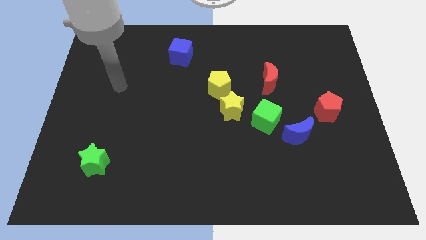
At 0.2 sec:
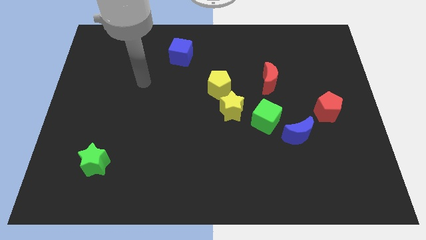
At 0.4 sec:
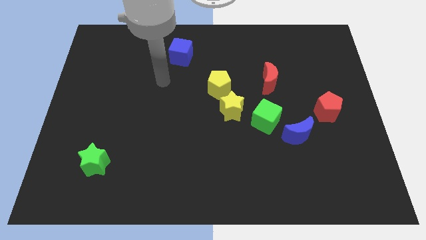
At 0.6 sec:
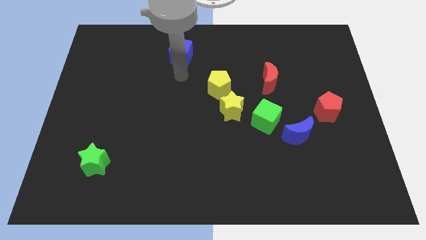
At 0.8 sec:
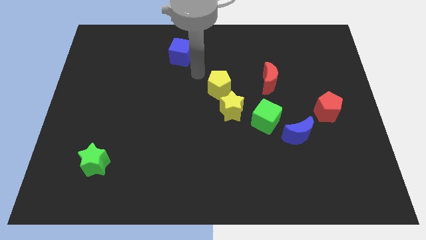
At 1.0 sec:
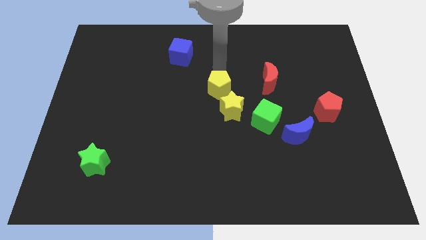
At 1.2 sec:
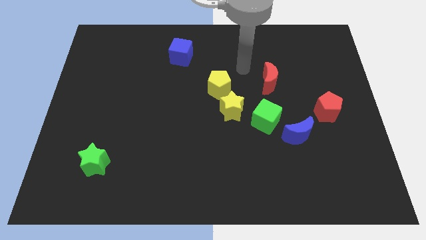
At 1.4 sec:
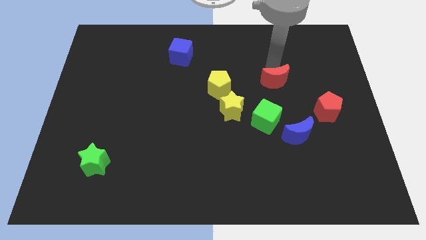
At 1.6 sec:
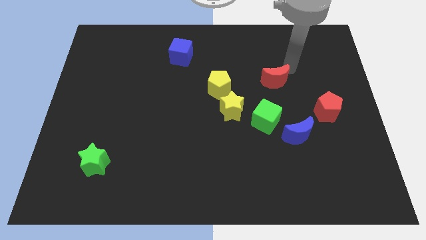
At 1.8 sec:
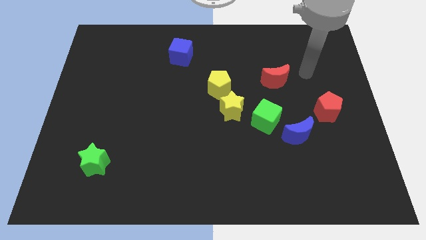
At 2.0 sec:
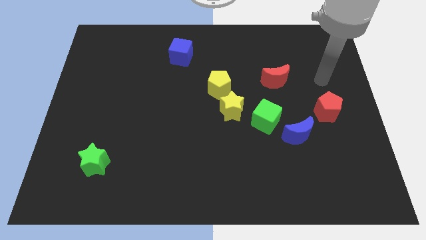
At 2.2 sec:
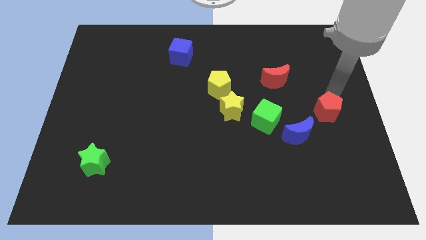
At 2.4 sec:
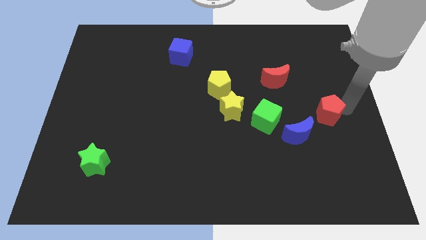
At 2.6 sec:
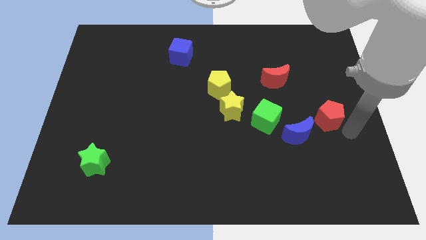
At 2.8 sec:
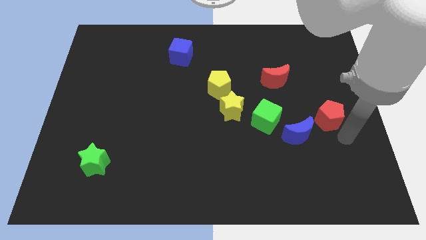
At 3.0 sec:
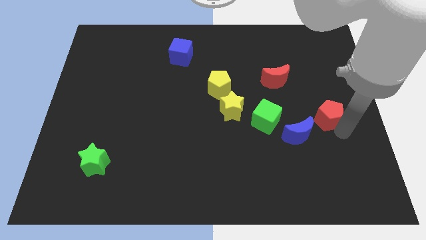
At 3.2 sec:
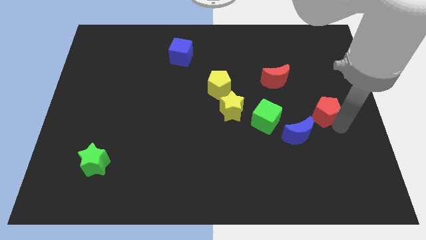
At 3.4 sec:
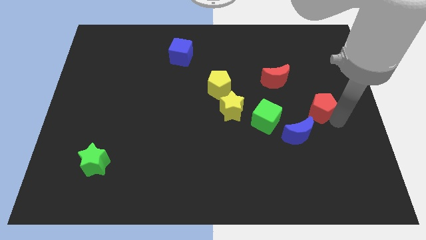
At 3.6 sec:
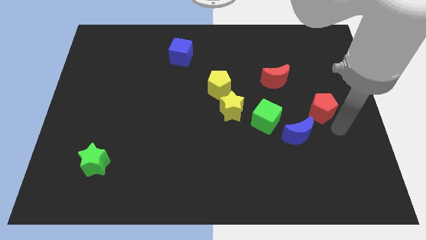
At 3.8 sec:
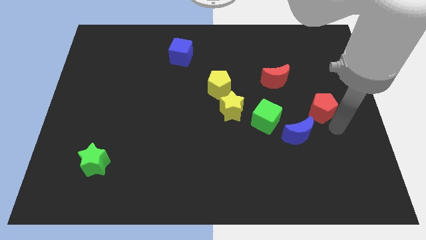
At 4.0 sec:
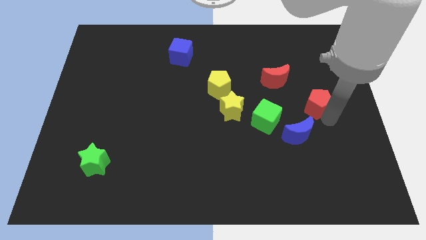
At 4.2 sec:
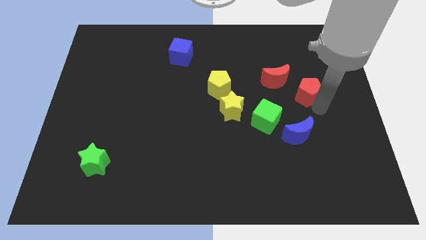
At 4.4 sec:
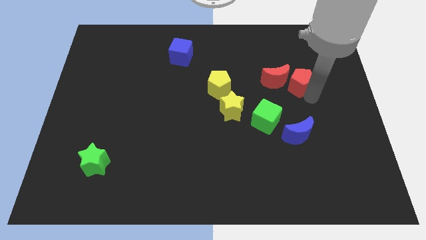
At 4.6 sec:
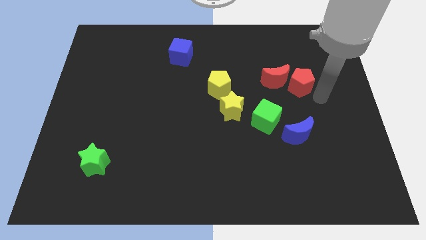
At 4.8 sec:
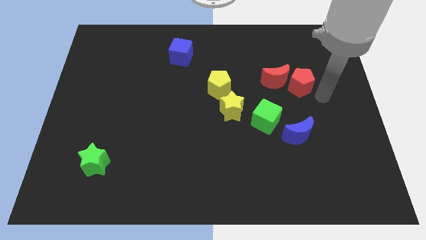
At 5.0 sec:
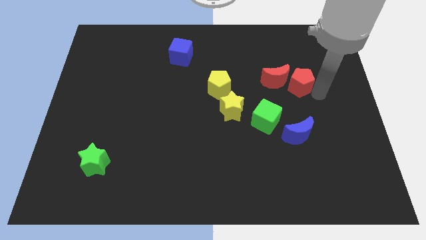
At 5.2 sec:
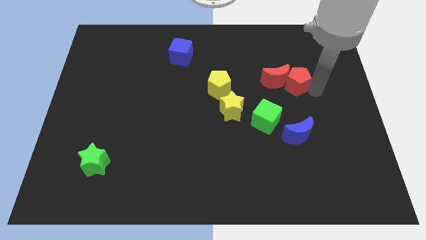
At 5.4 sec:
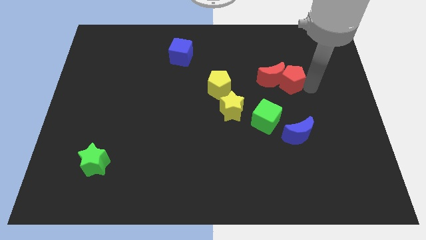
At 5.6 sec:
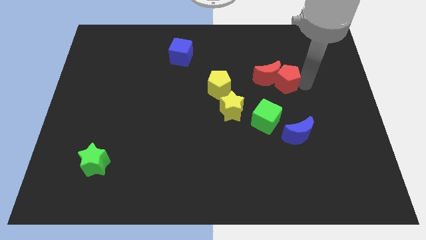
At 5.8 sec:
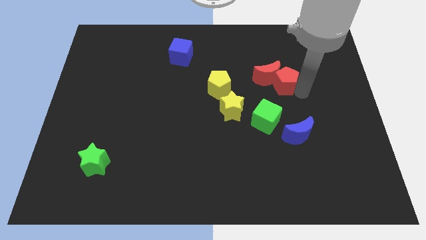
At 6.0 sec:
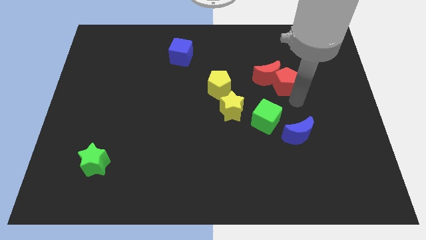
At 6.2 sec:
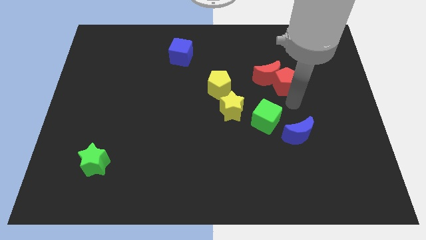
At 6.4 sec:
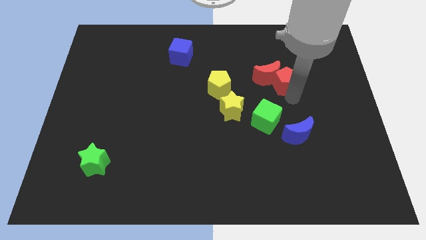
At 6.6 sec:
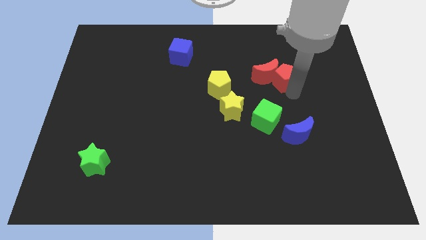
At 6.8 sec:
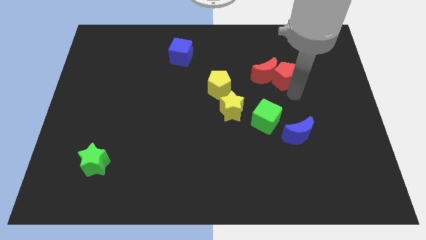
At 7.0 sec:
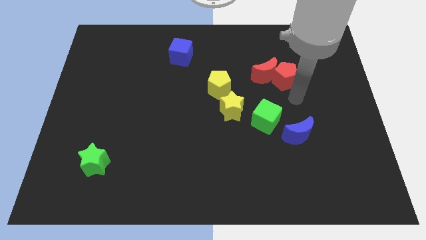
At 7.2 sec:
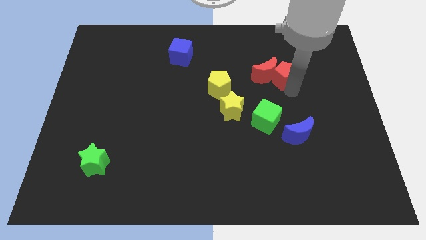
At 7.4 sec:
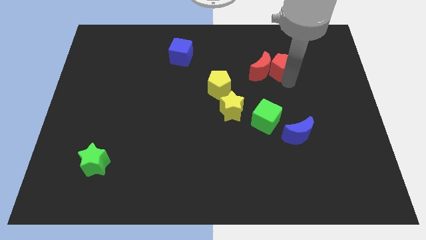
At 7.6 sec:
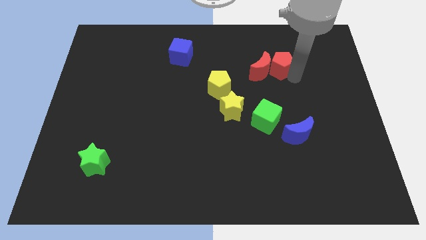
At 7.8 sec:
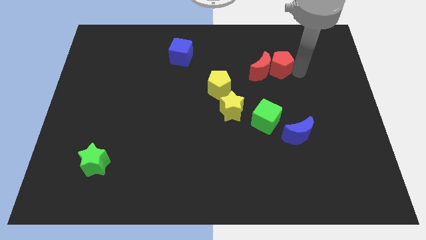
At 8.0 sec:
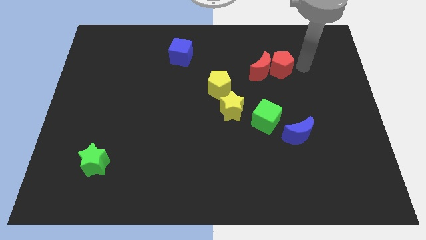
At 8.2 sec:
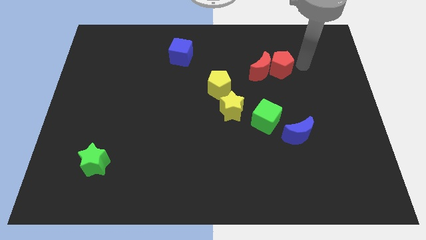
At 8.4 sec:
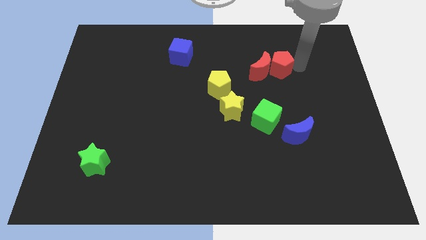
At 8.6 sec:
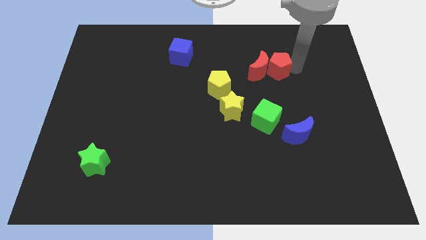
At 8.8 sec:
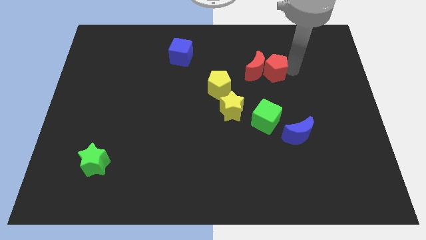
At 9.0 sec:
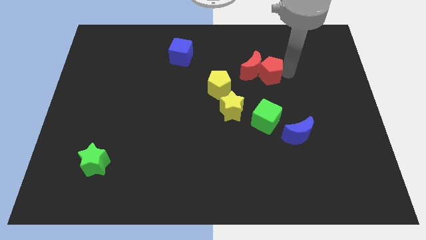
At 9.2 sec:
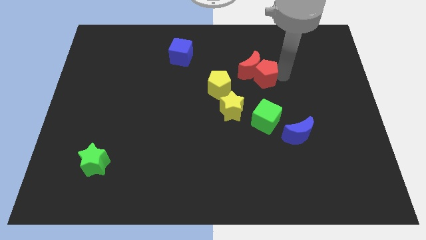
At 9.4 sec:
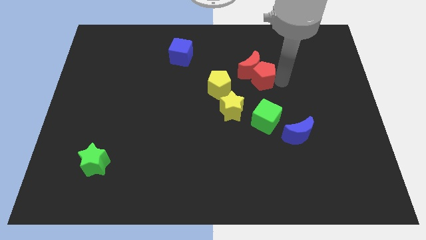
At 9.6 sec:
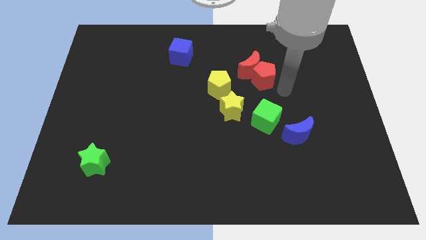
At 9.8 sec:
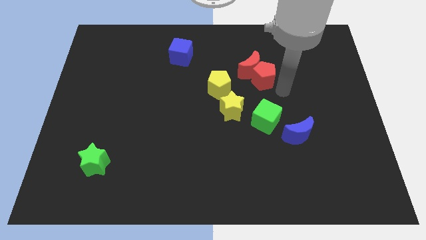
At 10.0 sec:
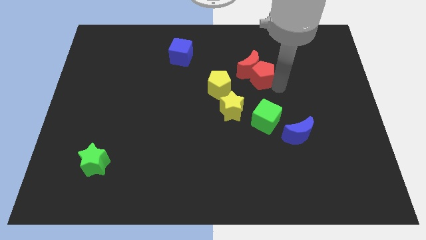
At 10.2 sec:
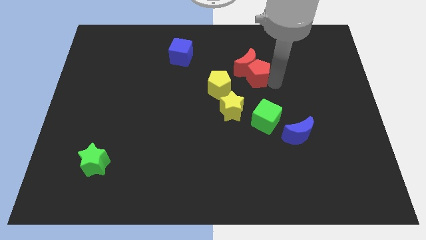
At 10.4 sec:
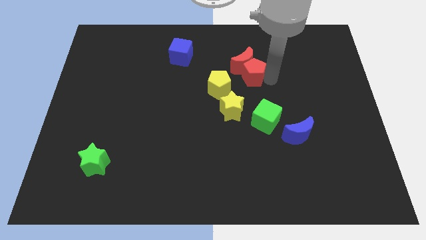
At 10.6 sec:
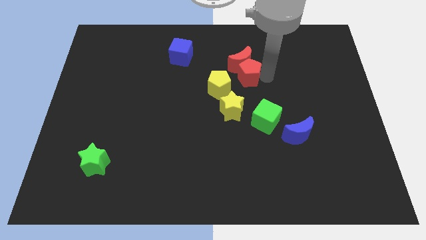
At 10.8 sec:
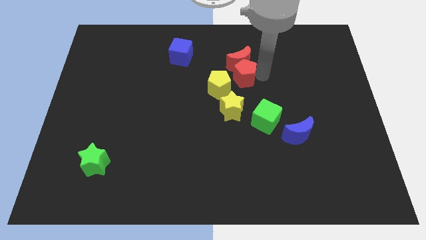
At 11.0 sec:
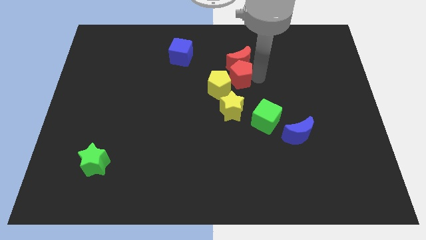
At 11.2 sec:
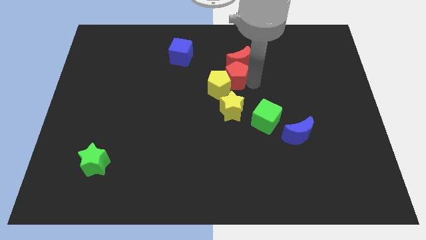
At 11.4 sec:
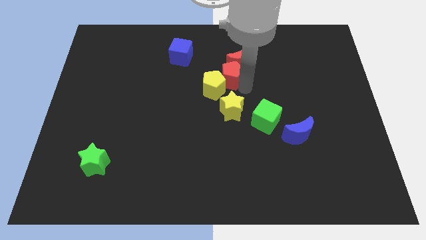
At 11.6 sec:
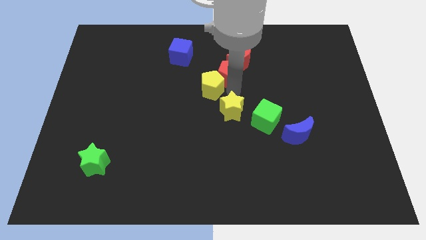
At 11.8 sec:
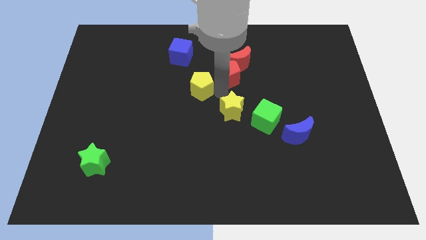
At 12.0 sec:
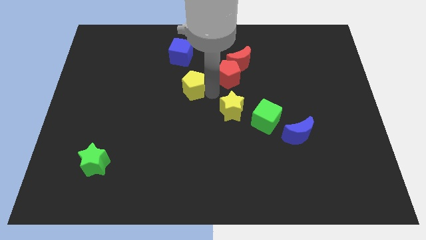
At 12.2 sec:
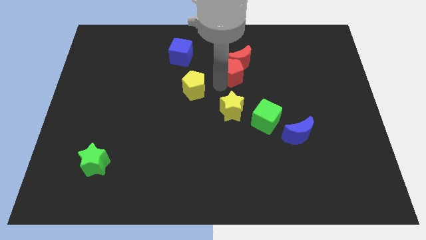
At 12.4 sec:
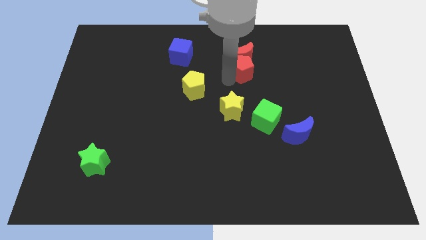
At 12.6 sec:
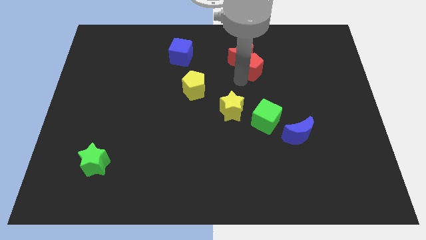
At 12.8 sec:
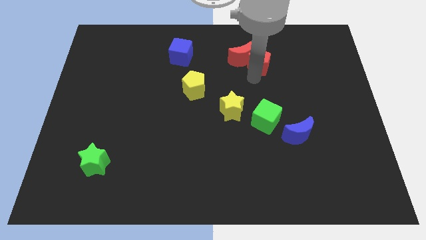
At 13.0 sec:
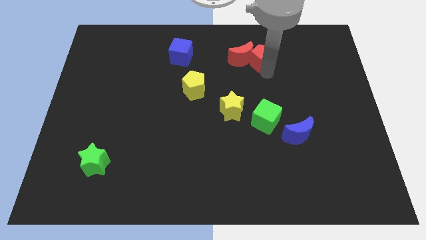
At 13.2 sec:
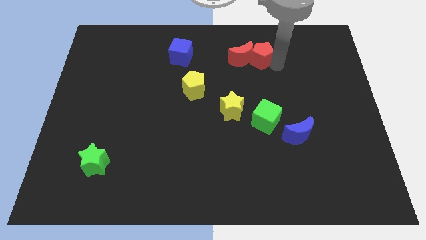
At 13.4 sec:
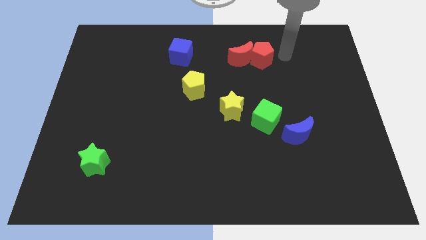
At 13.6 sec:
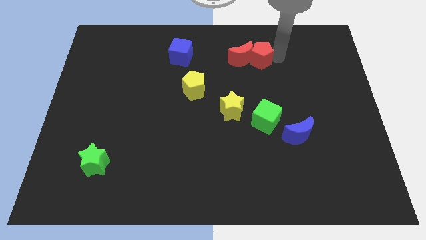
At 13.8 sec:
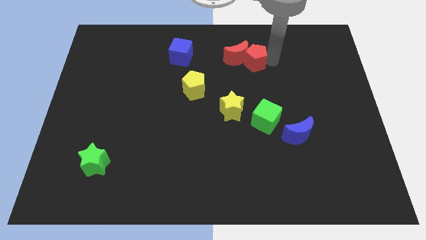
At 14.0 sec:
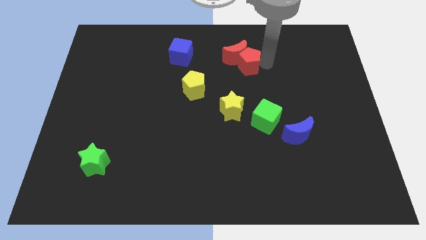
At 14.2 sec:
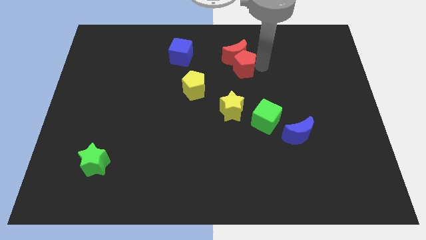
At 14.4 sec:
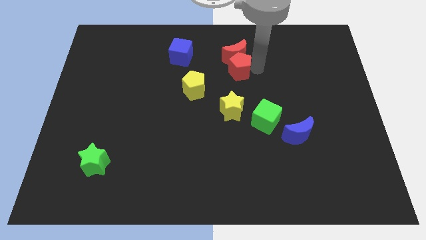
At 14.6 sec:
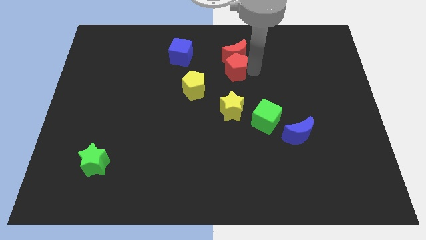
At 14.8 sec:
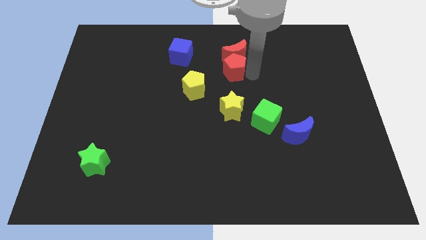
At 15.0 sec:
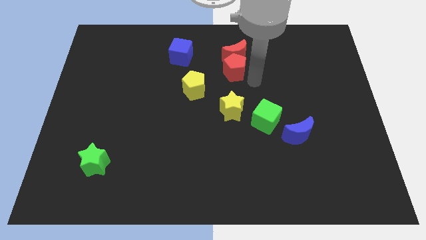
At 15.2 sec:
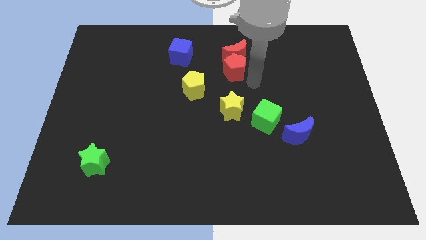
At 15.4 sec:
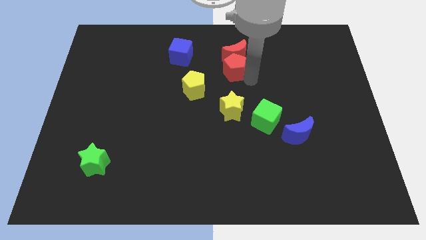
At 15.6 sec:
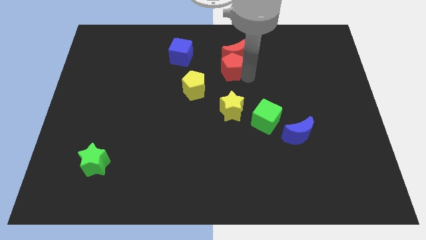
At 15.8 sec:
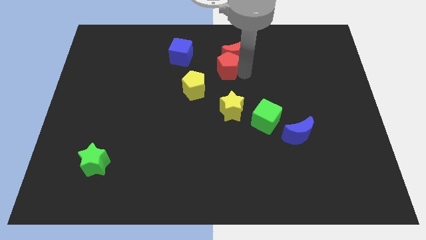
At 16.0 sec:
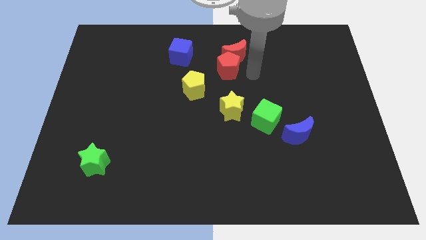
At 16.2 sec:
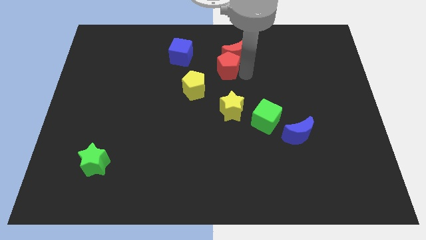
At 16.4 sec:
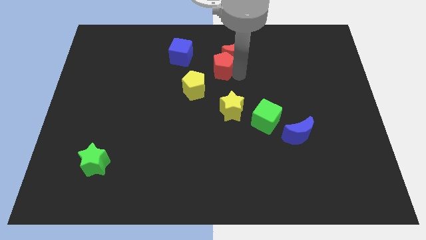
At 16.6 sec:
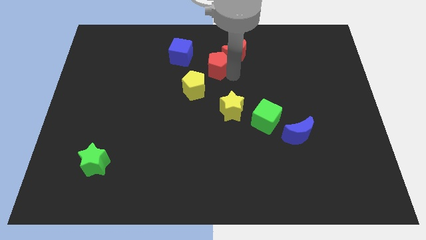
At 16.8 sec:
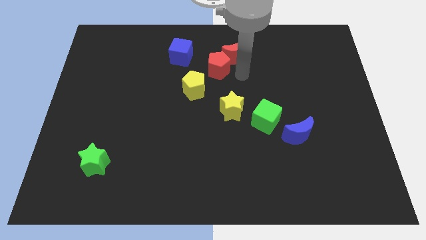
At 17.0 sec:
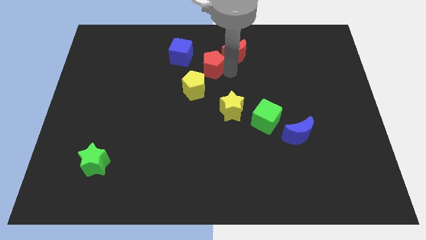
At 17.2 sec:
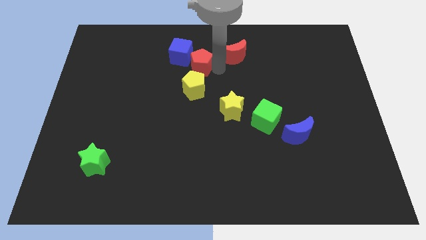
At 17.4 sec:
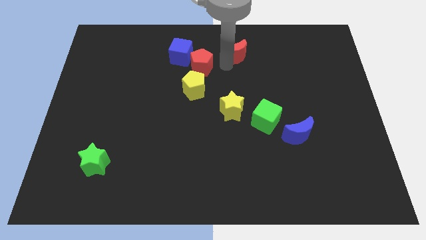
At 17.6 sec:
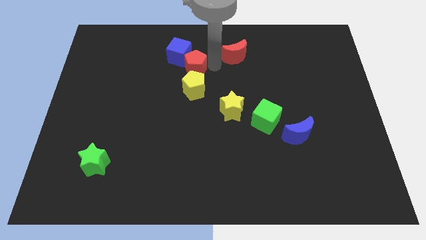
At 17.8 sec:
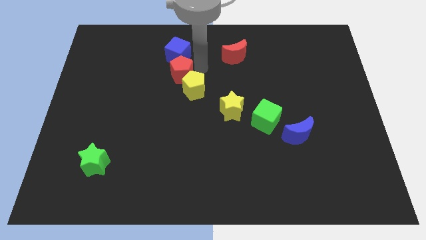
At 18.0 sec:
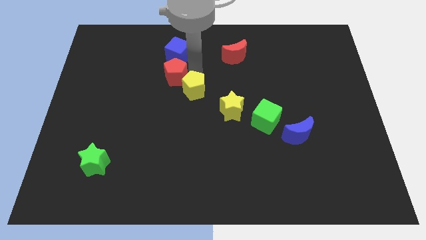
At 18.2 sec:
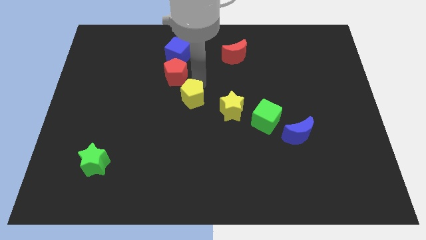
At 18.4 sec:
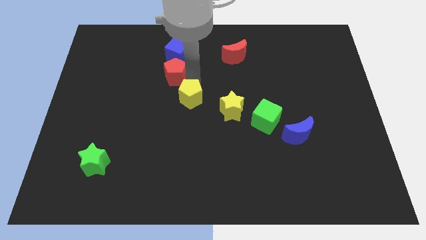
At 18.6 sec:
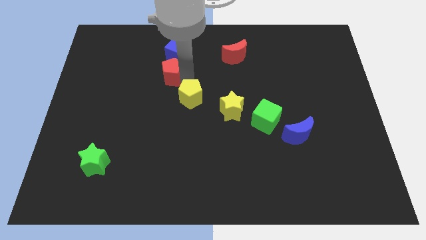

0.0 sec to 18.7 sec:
move the red pentagon to the bottom left side of the blue cube
